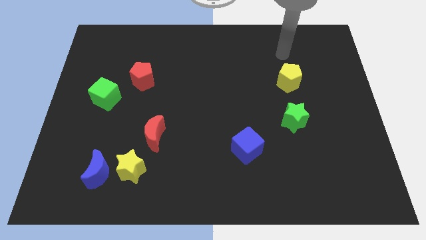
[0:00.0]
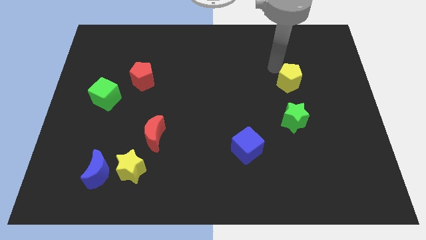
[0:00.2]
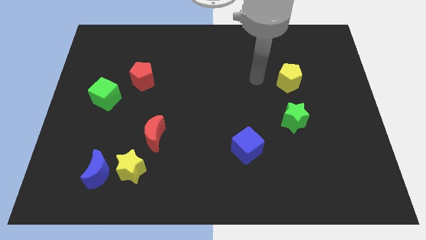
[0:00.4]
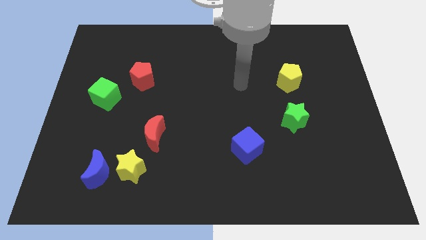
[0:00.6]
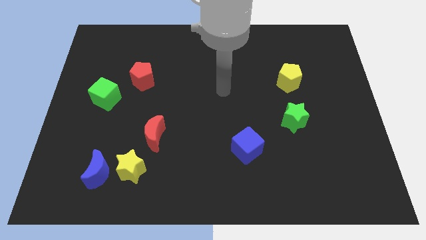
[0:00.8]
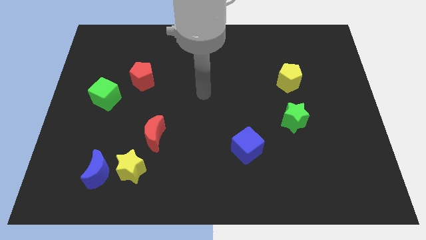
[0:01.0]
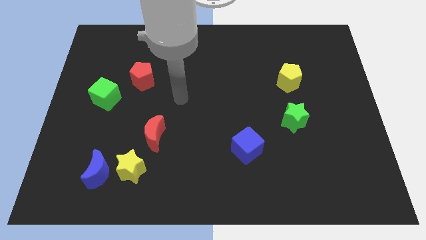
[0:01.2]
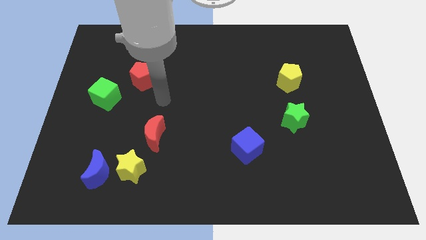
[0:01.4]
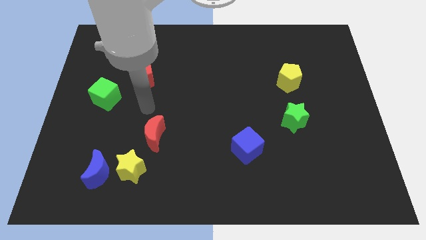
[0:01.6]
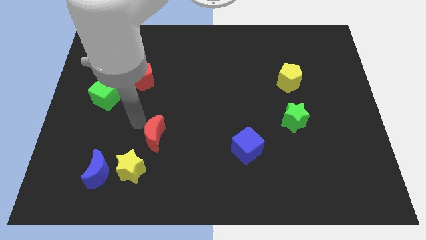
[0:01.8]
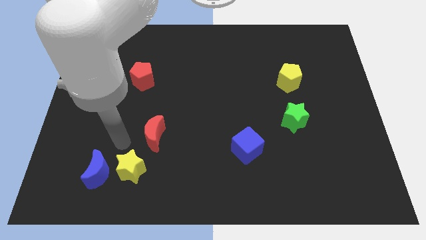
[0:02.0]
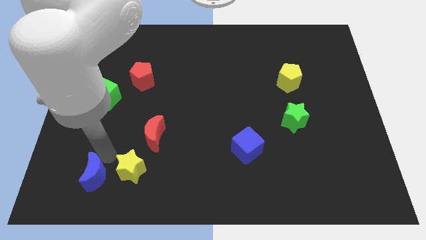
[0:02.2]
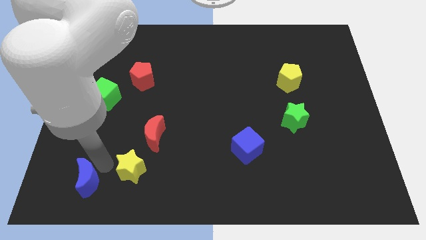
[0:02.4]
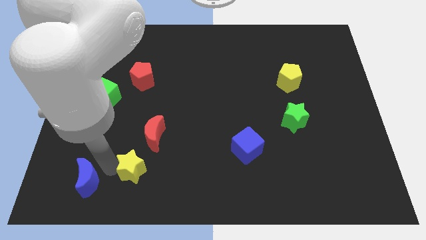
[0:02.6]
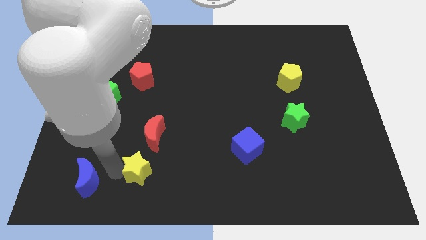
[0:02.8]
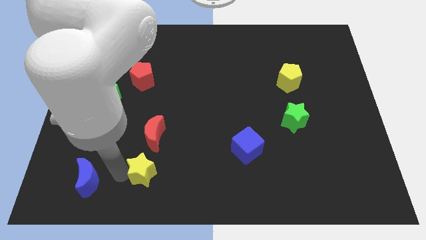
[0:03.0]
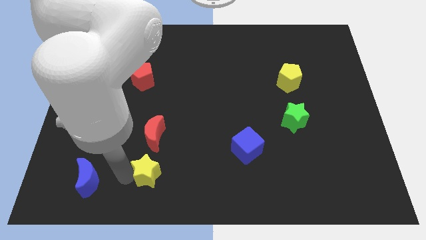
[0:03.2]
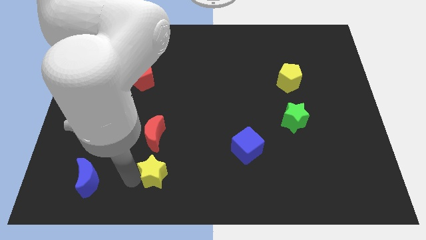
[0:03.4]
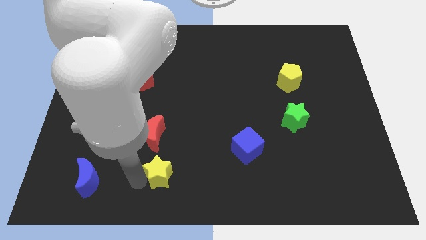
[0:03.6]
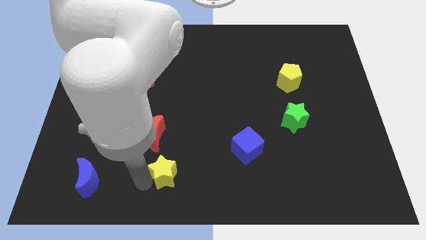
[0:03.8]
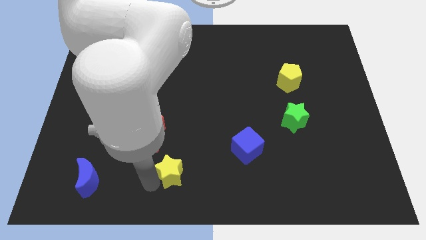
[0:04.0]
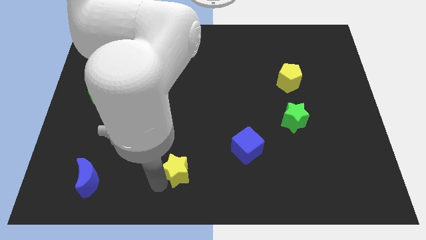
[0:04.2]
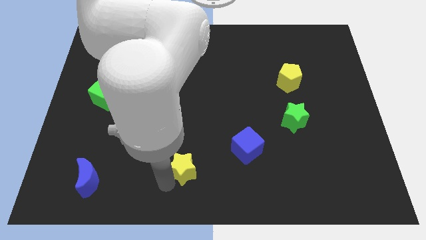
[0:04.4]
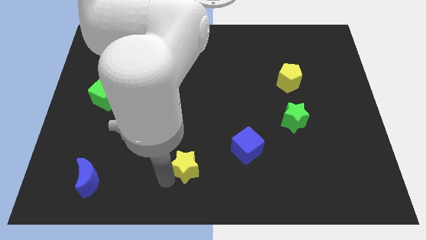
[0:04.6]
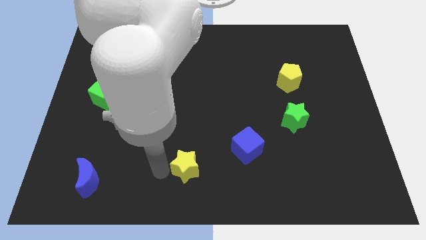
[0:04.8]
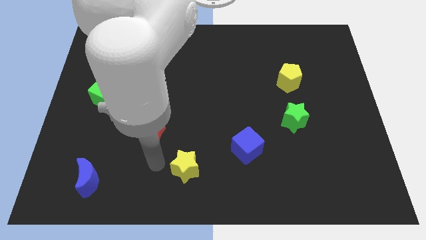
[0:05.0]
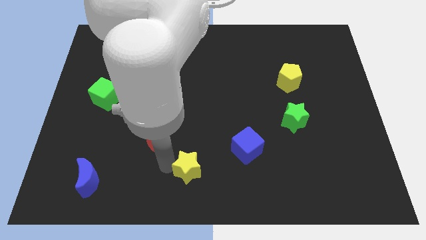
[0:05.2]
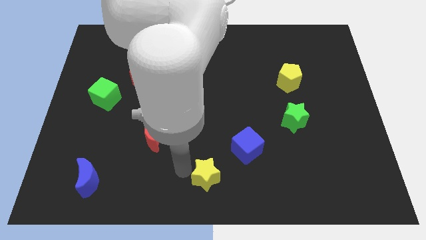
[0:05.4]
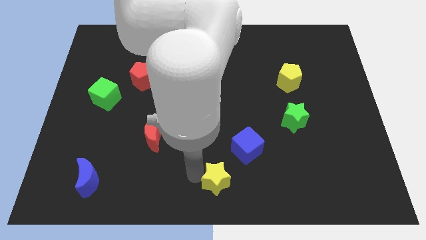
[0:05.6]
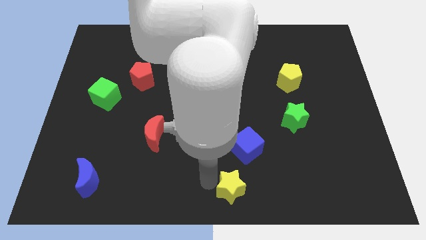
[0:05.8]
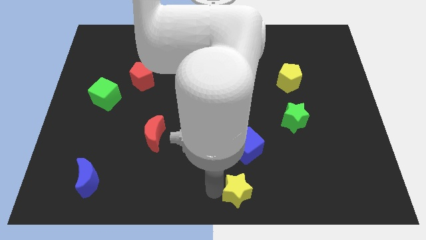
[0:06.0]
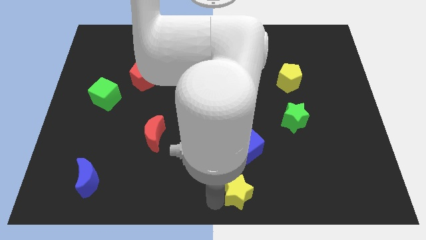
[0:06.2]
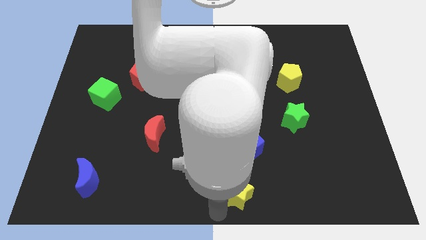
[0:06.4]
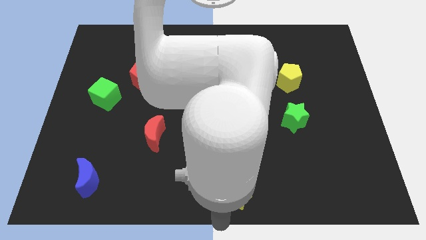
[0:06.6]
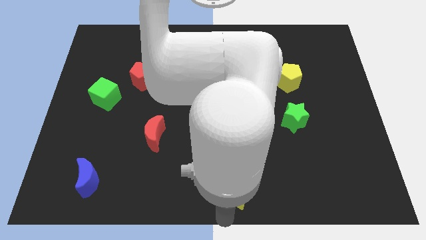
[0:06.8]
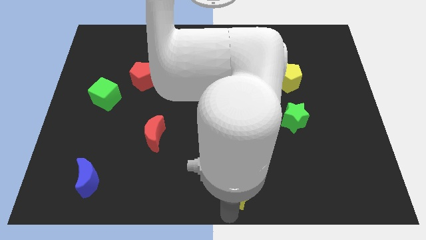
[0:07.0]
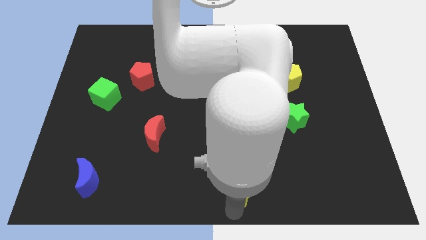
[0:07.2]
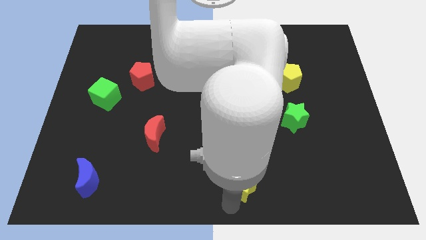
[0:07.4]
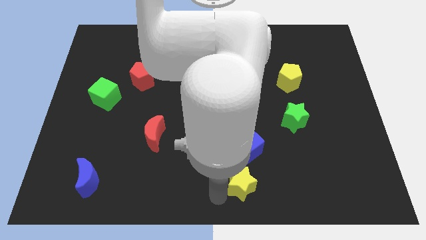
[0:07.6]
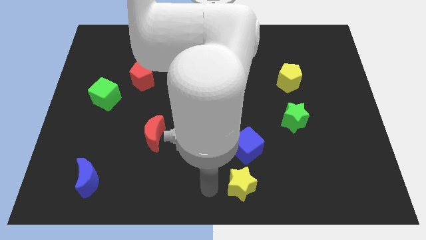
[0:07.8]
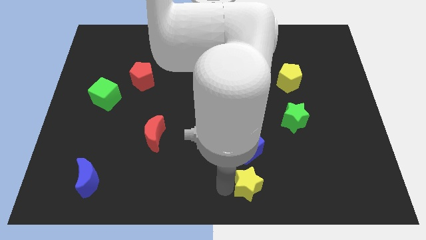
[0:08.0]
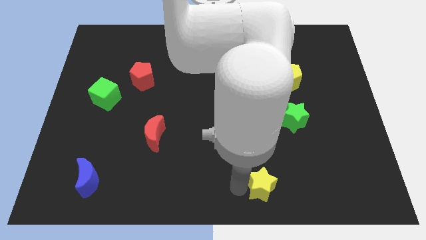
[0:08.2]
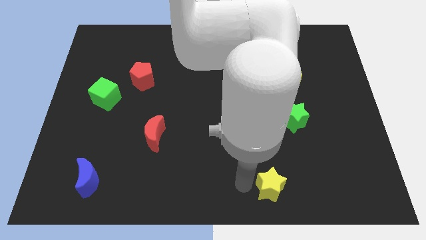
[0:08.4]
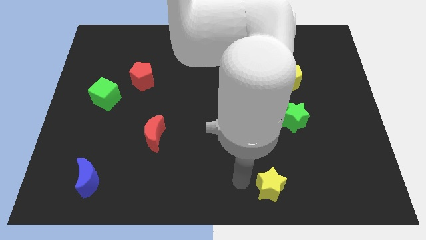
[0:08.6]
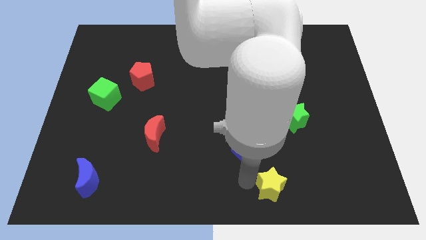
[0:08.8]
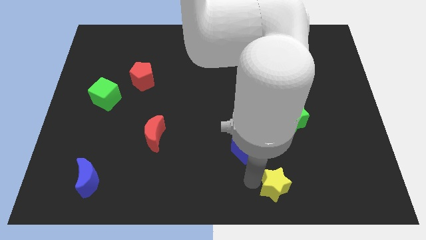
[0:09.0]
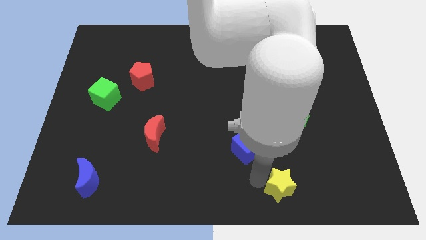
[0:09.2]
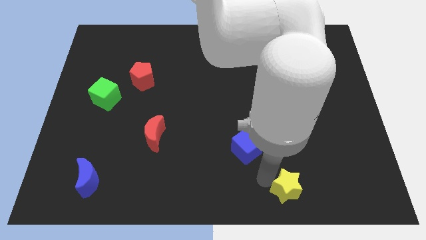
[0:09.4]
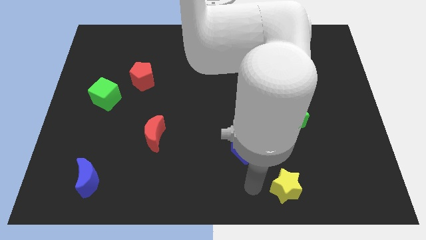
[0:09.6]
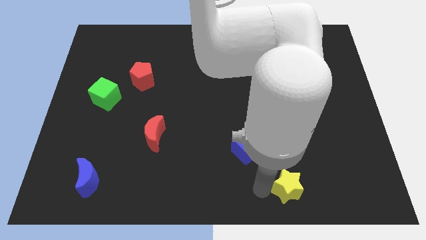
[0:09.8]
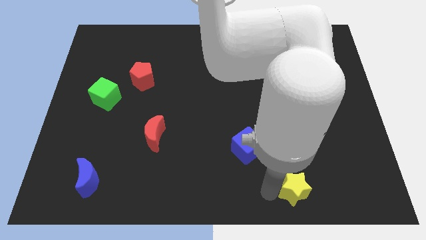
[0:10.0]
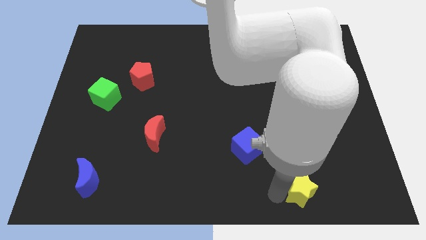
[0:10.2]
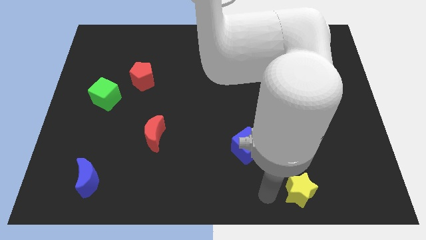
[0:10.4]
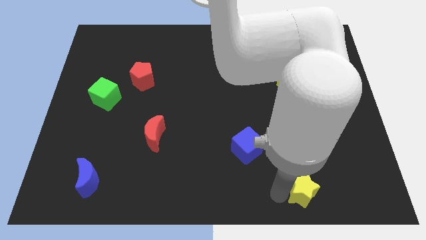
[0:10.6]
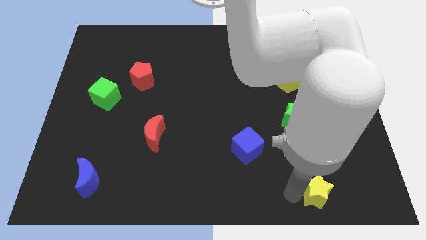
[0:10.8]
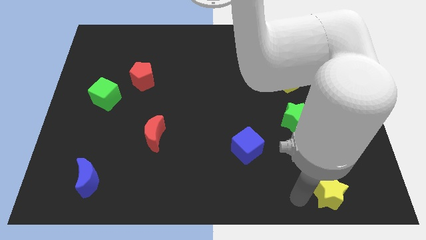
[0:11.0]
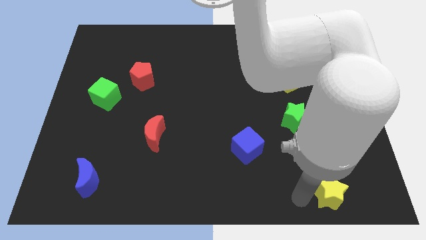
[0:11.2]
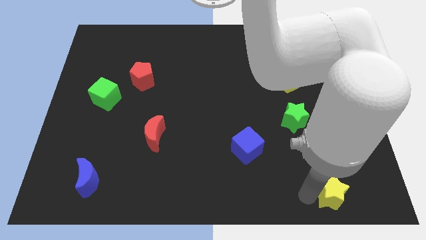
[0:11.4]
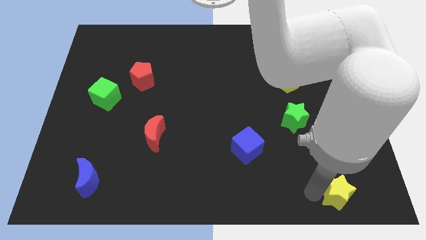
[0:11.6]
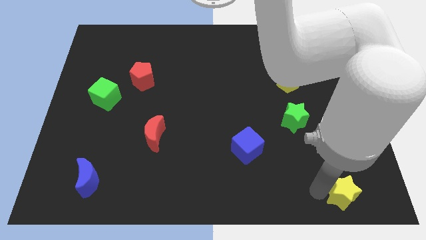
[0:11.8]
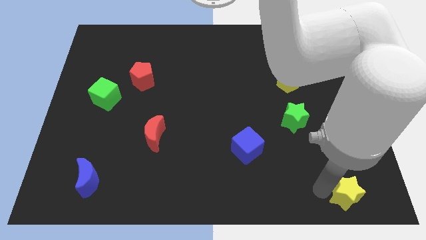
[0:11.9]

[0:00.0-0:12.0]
slide the yellow star to the bottom right
